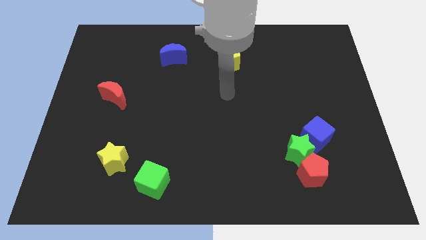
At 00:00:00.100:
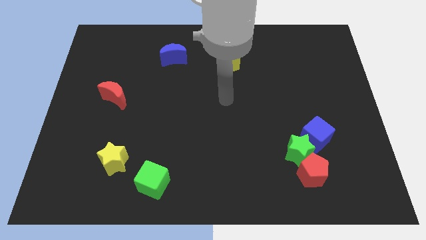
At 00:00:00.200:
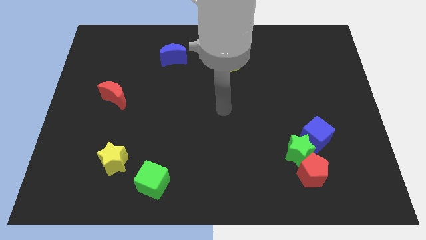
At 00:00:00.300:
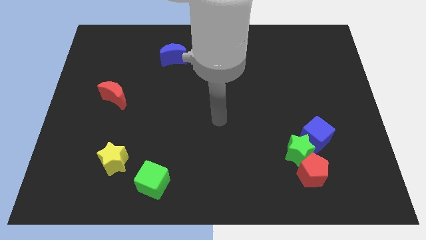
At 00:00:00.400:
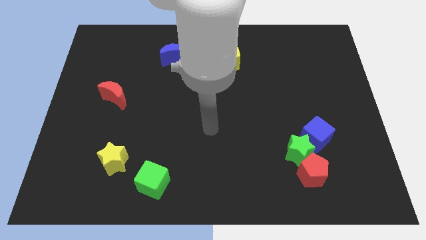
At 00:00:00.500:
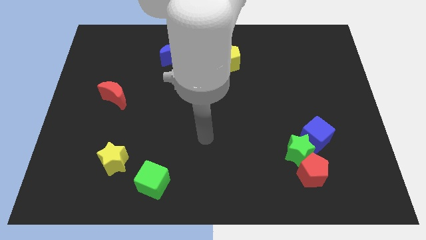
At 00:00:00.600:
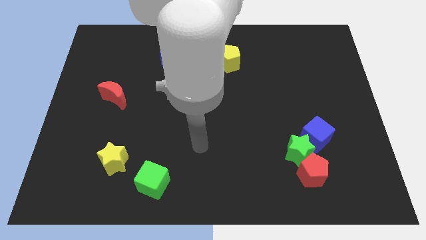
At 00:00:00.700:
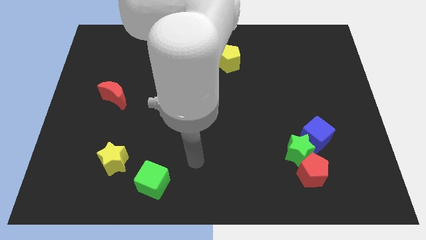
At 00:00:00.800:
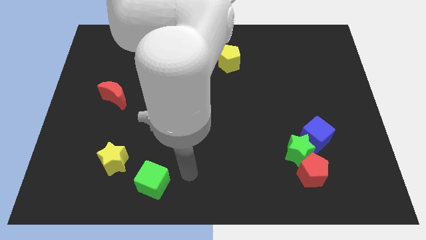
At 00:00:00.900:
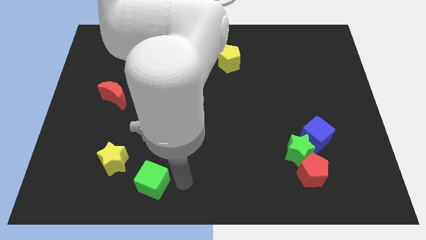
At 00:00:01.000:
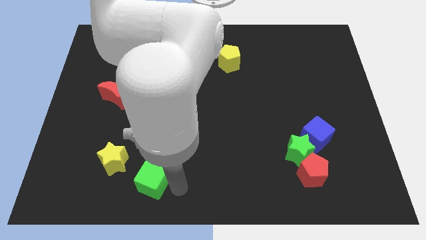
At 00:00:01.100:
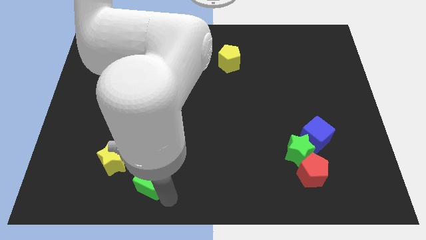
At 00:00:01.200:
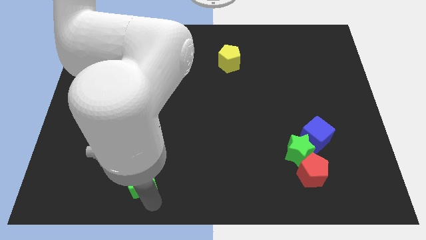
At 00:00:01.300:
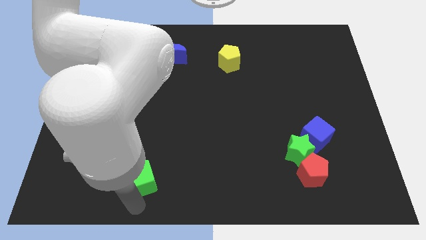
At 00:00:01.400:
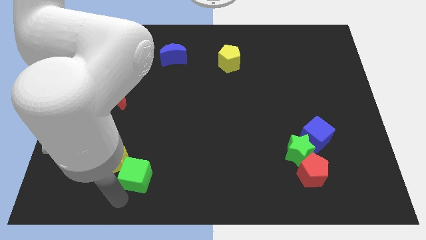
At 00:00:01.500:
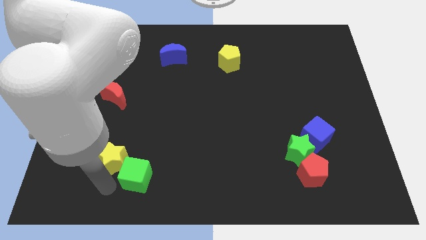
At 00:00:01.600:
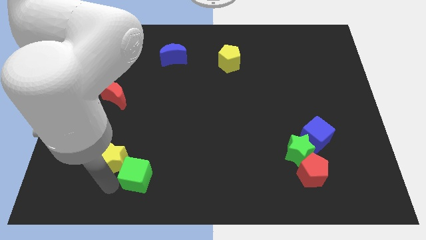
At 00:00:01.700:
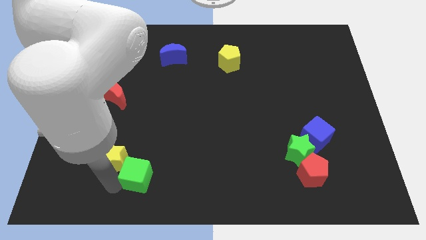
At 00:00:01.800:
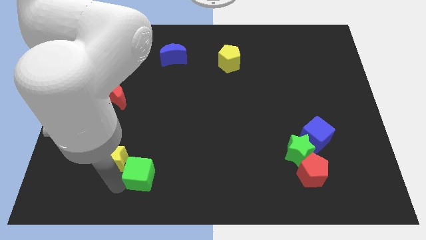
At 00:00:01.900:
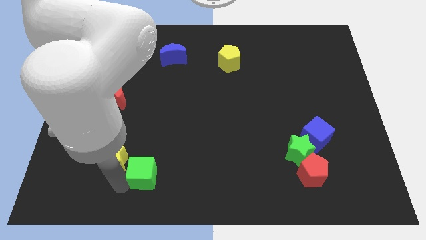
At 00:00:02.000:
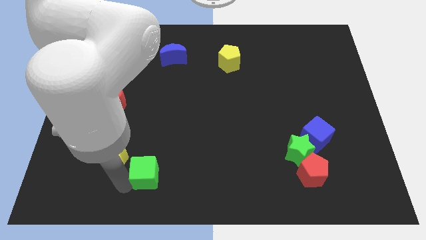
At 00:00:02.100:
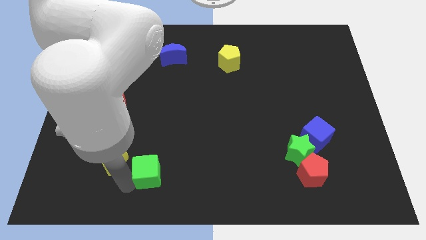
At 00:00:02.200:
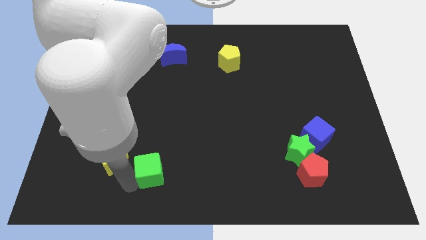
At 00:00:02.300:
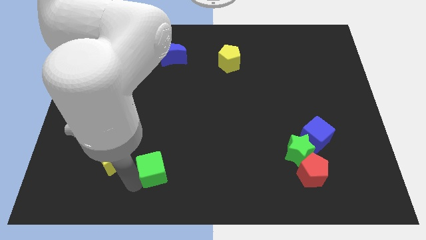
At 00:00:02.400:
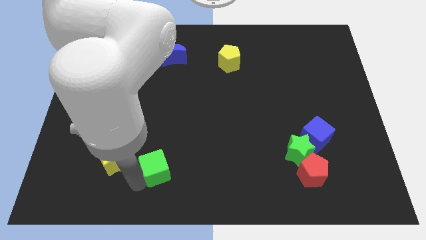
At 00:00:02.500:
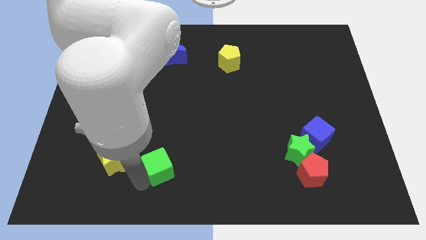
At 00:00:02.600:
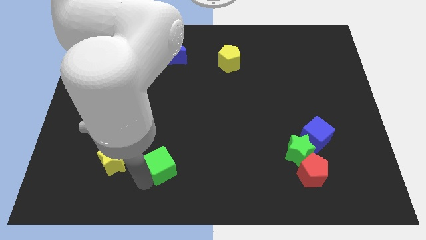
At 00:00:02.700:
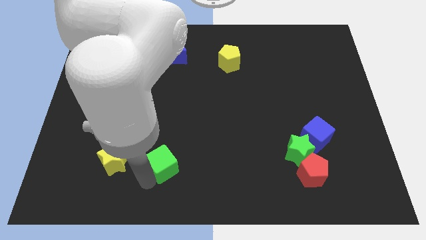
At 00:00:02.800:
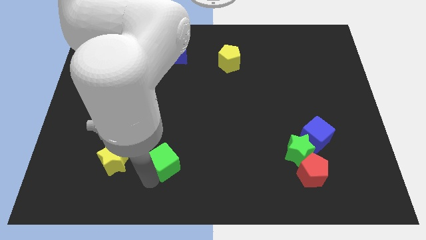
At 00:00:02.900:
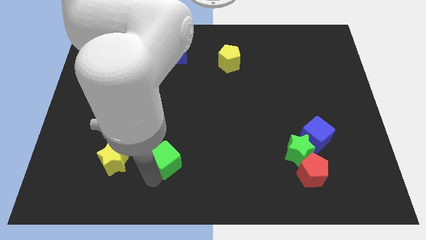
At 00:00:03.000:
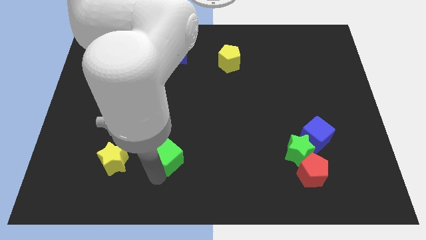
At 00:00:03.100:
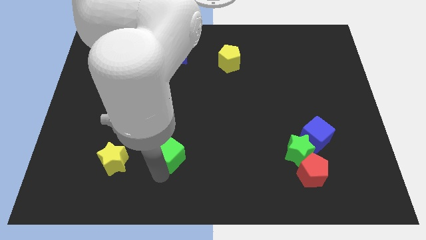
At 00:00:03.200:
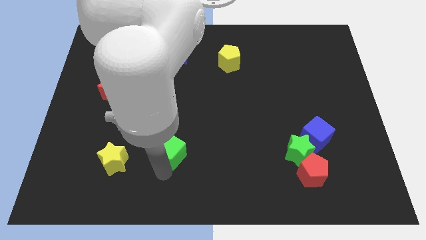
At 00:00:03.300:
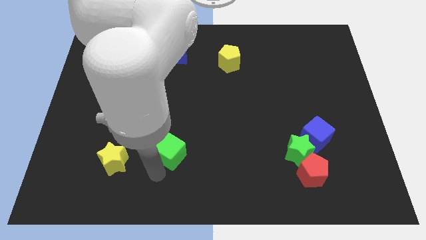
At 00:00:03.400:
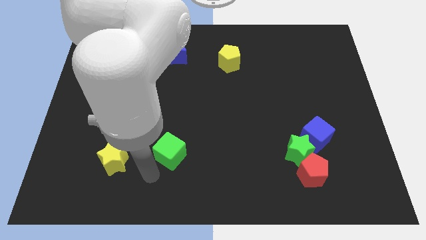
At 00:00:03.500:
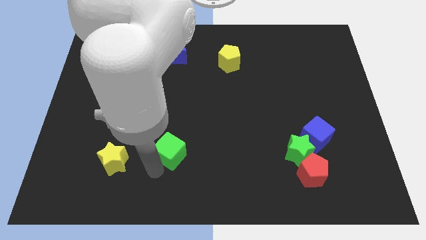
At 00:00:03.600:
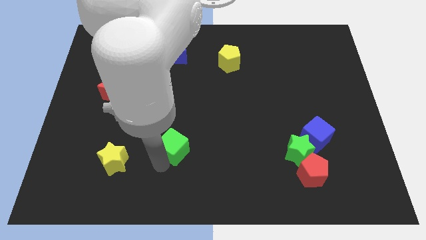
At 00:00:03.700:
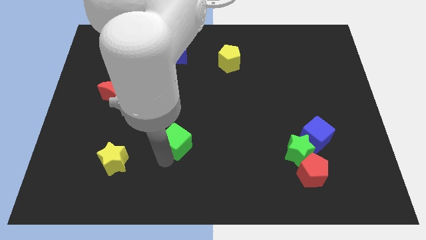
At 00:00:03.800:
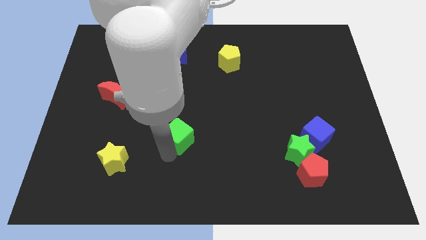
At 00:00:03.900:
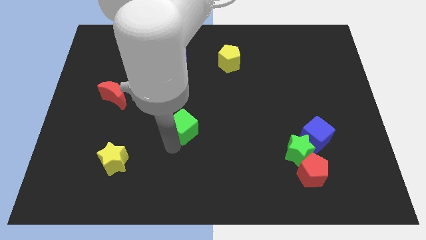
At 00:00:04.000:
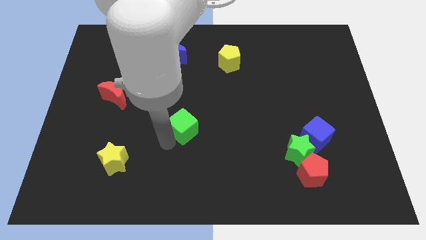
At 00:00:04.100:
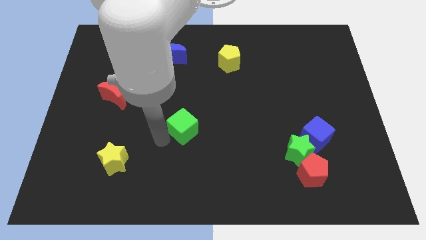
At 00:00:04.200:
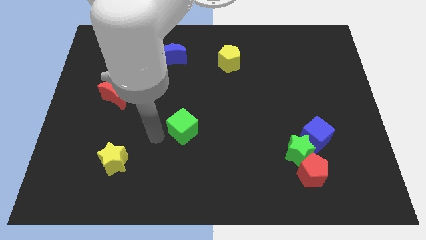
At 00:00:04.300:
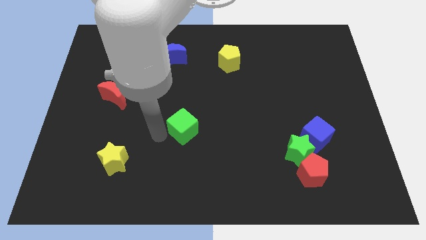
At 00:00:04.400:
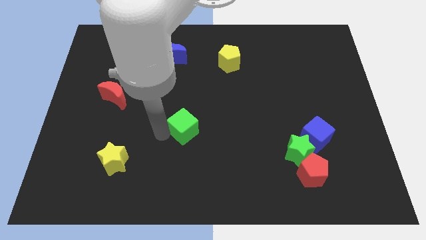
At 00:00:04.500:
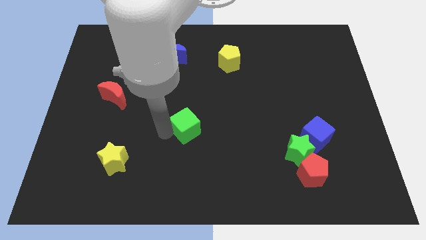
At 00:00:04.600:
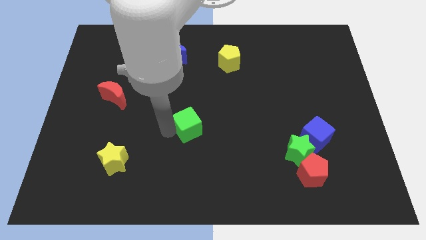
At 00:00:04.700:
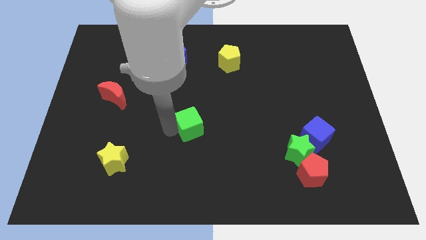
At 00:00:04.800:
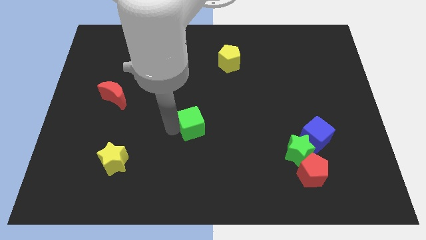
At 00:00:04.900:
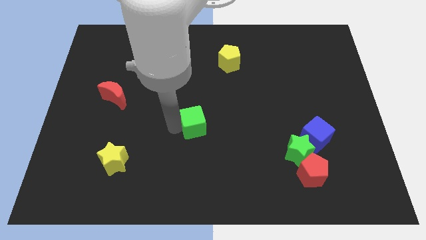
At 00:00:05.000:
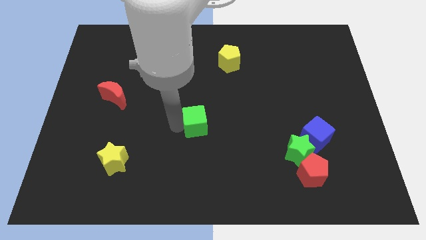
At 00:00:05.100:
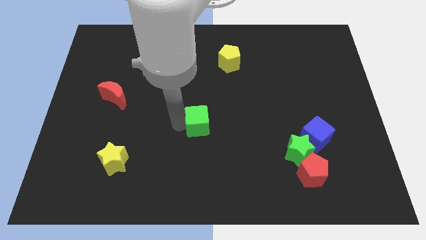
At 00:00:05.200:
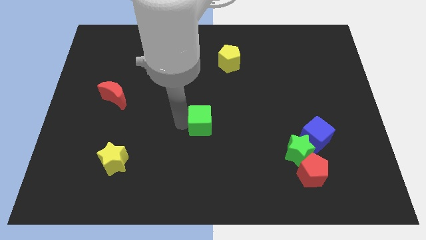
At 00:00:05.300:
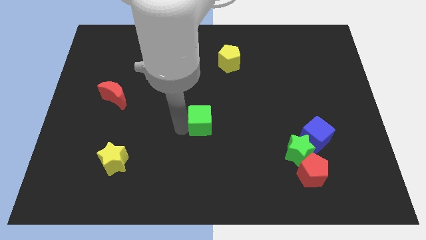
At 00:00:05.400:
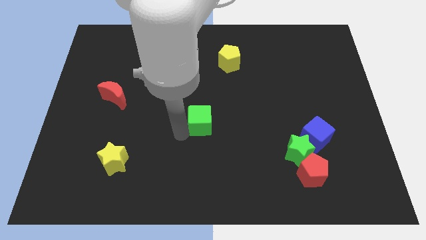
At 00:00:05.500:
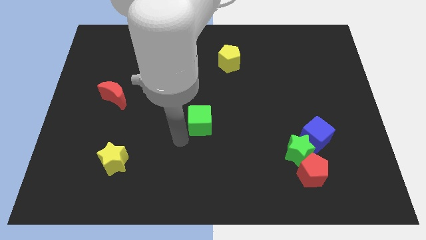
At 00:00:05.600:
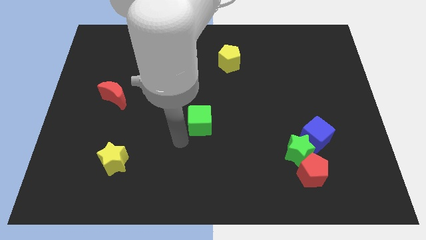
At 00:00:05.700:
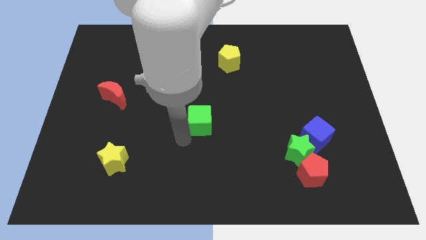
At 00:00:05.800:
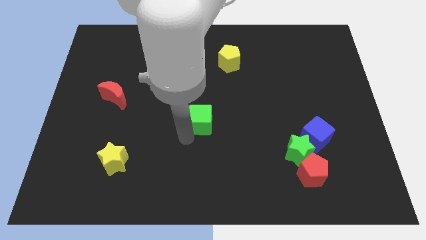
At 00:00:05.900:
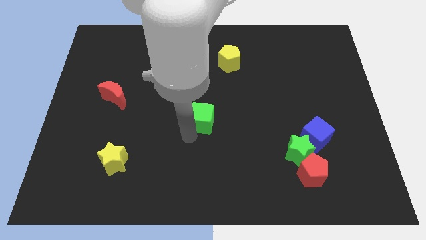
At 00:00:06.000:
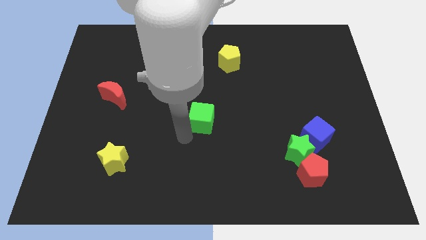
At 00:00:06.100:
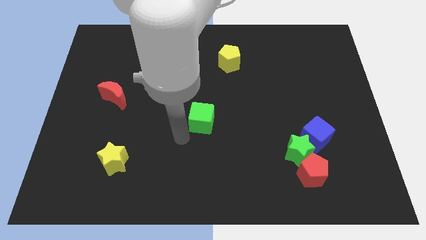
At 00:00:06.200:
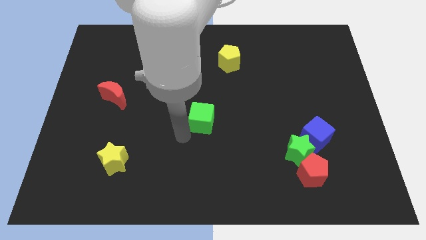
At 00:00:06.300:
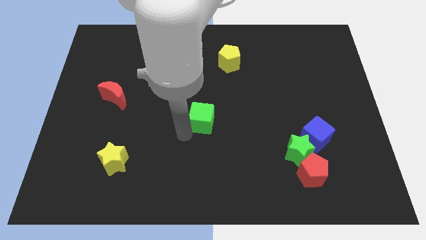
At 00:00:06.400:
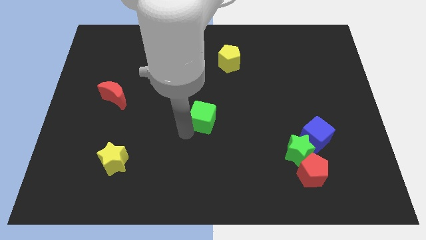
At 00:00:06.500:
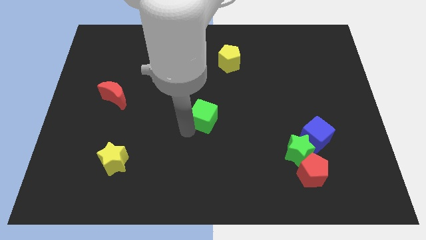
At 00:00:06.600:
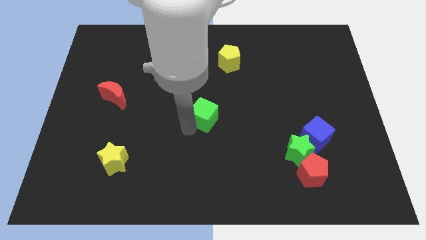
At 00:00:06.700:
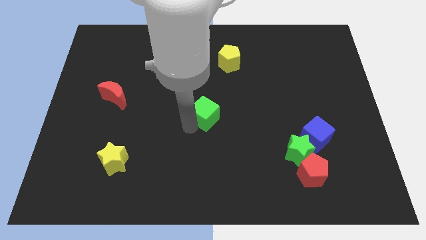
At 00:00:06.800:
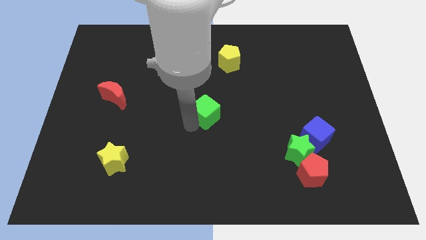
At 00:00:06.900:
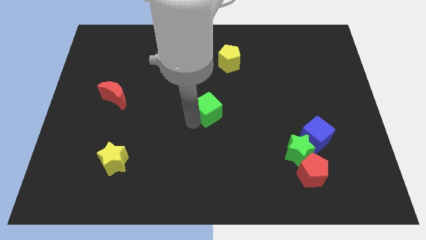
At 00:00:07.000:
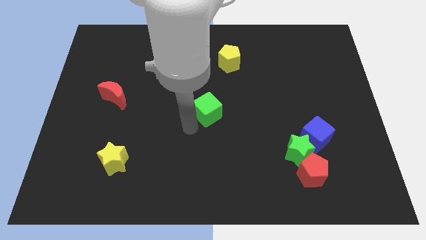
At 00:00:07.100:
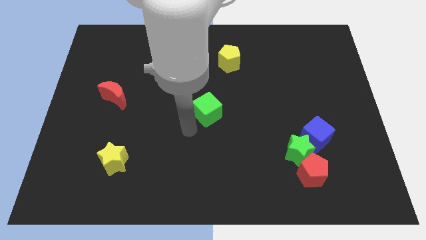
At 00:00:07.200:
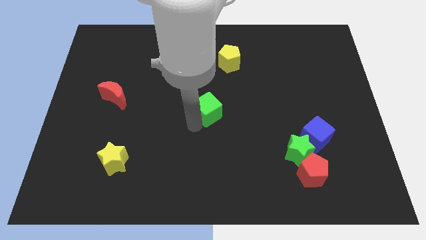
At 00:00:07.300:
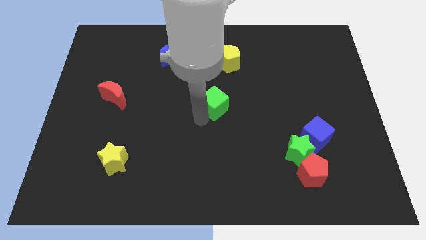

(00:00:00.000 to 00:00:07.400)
move the green cube below the yellow pentagon
